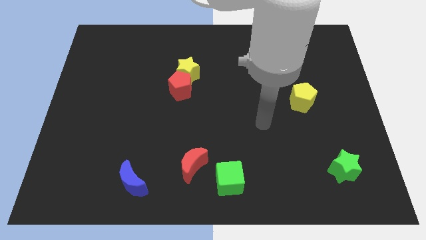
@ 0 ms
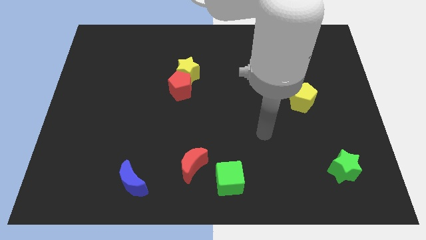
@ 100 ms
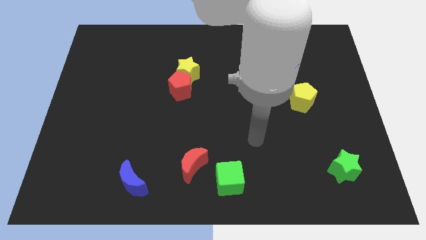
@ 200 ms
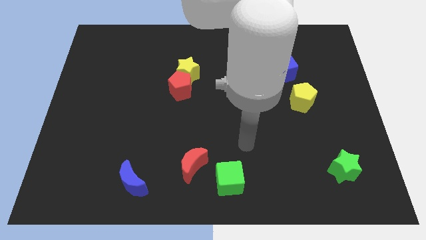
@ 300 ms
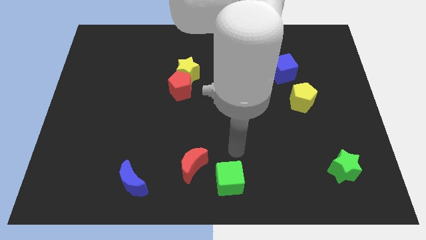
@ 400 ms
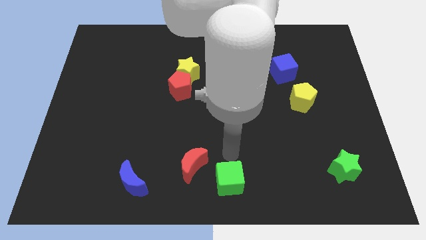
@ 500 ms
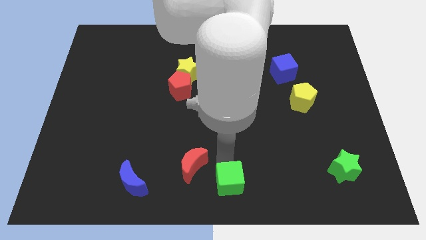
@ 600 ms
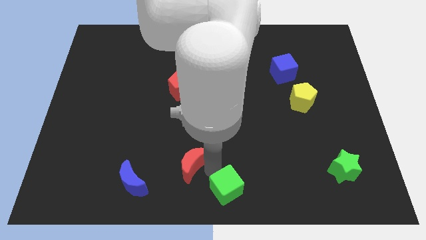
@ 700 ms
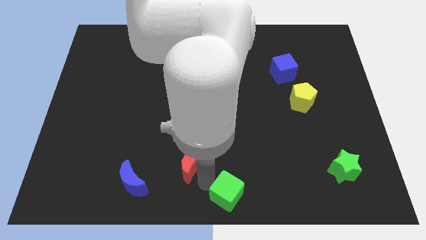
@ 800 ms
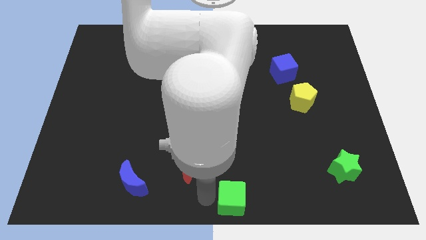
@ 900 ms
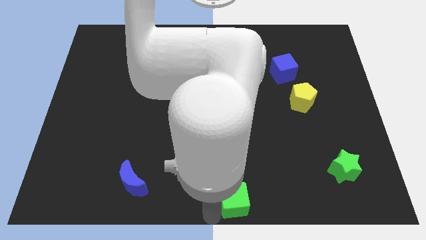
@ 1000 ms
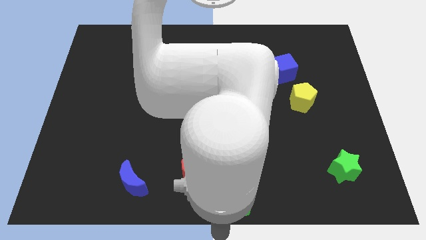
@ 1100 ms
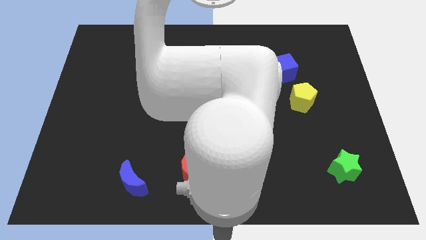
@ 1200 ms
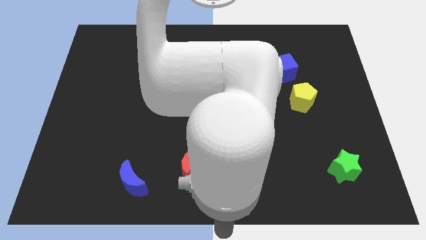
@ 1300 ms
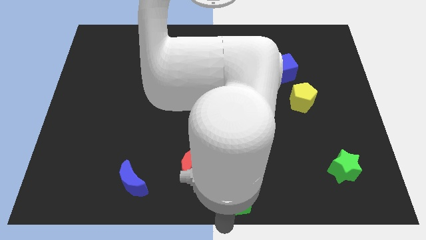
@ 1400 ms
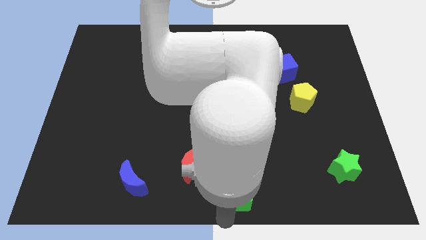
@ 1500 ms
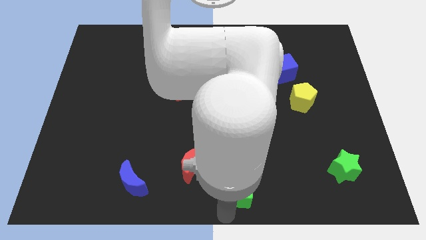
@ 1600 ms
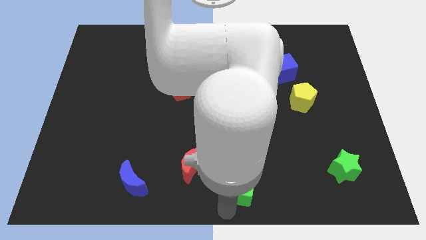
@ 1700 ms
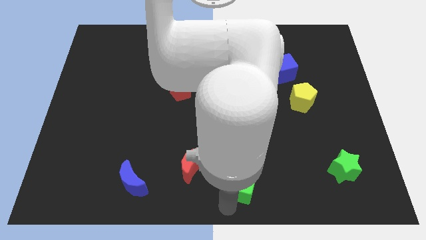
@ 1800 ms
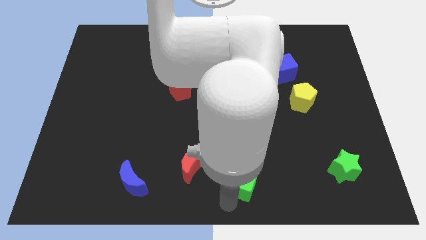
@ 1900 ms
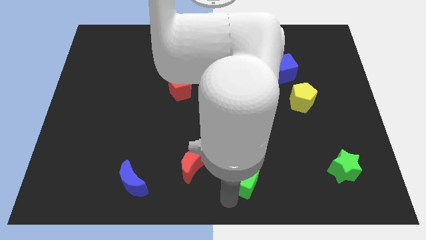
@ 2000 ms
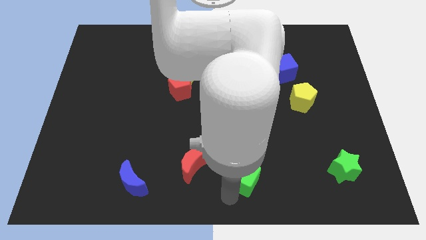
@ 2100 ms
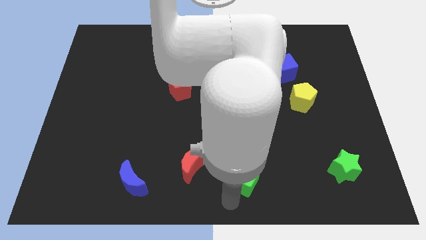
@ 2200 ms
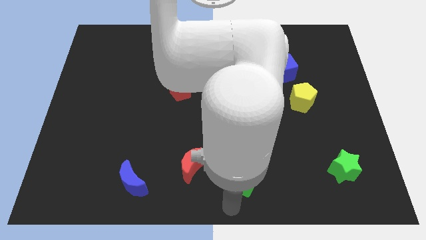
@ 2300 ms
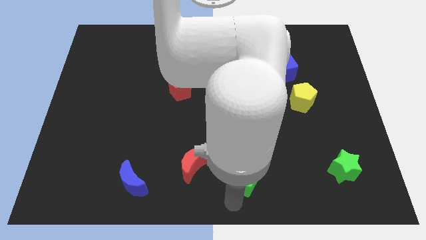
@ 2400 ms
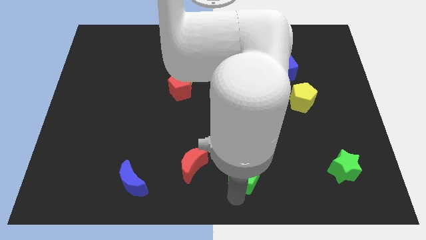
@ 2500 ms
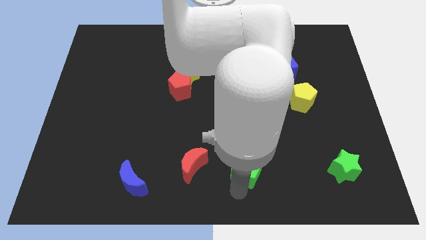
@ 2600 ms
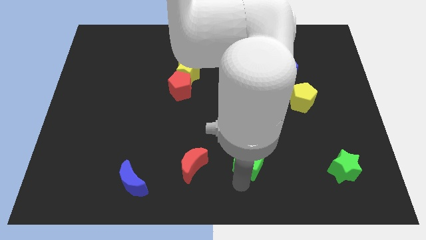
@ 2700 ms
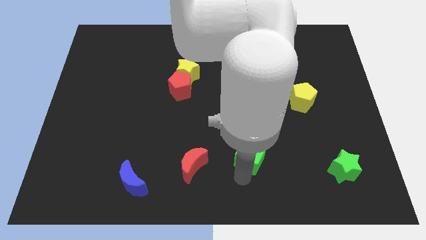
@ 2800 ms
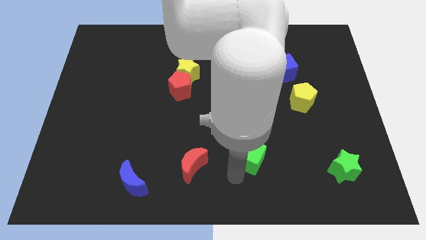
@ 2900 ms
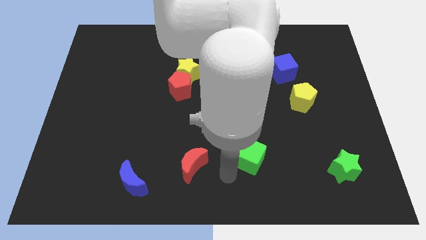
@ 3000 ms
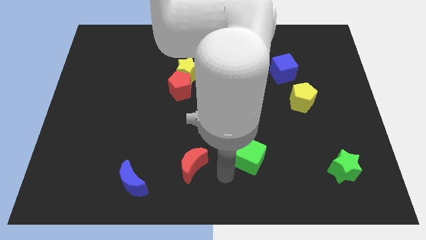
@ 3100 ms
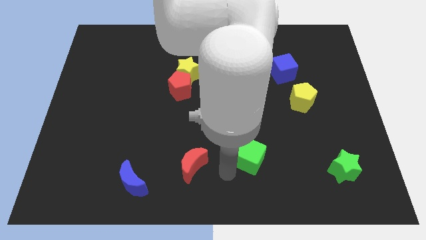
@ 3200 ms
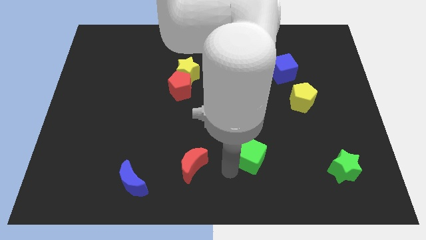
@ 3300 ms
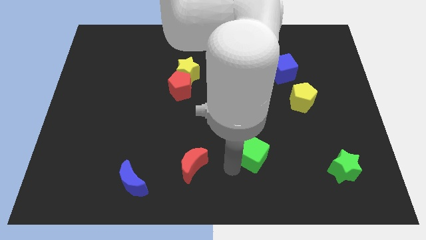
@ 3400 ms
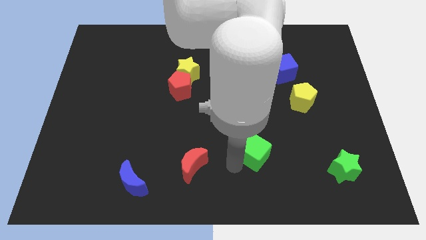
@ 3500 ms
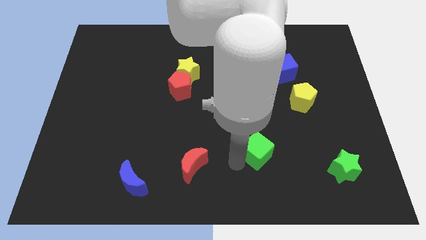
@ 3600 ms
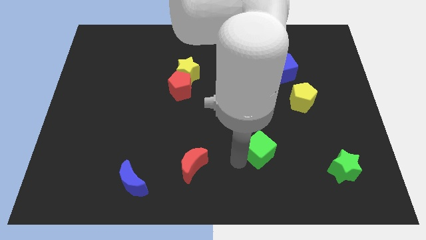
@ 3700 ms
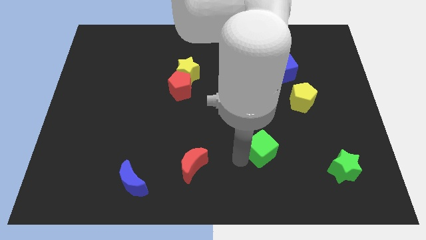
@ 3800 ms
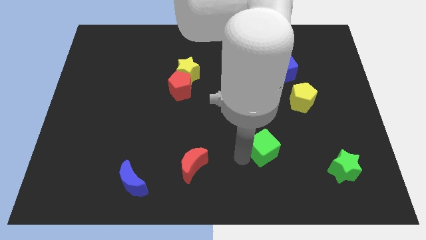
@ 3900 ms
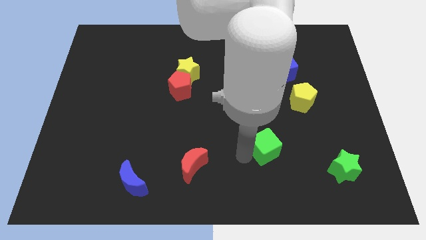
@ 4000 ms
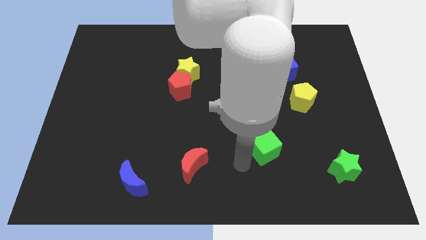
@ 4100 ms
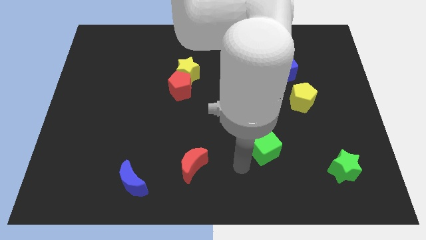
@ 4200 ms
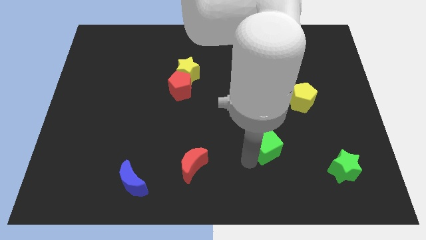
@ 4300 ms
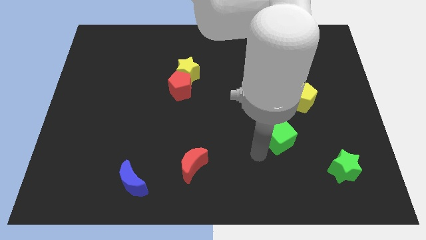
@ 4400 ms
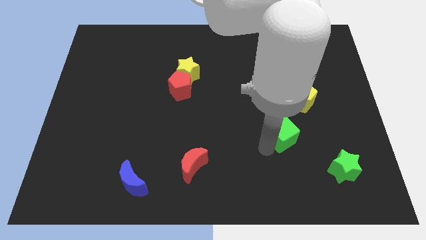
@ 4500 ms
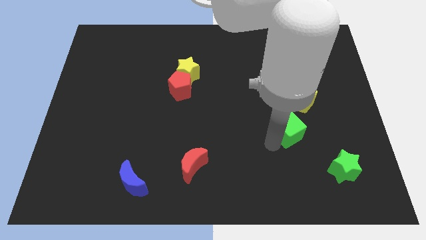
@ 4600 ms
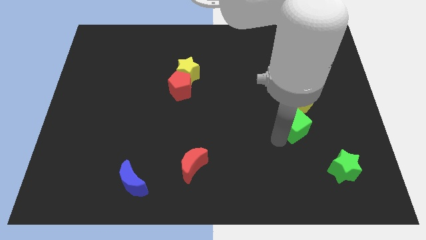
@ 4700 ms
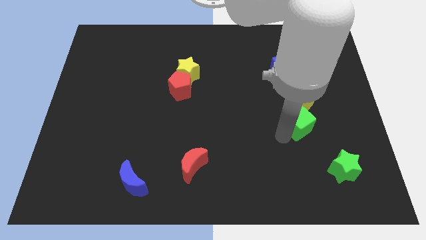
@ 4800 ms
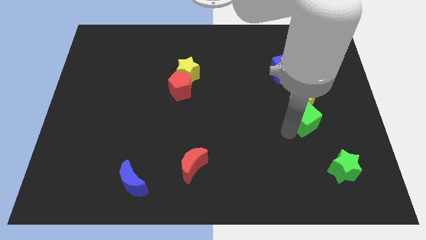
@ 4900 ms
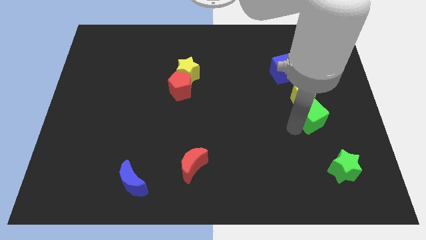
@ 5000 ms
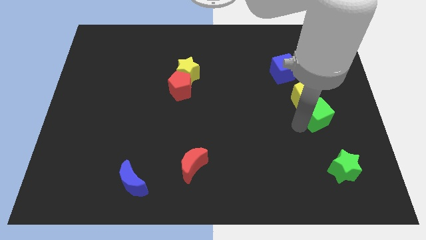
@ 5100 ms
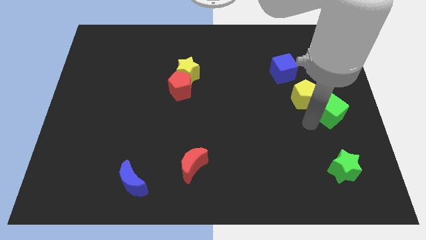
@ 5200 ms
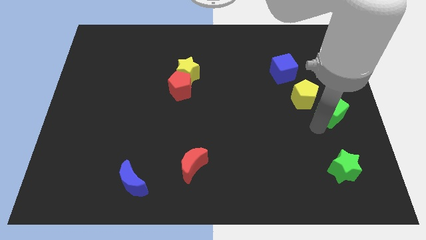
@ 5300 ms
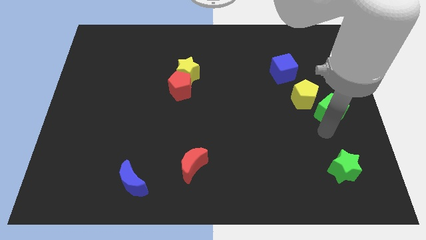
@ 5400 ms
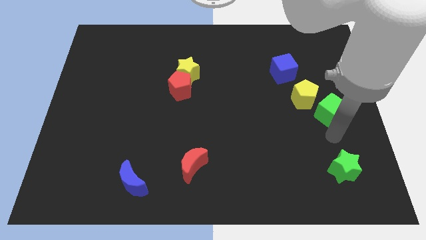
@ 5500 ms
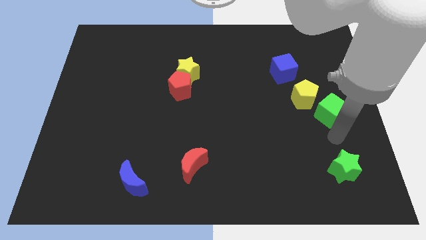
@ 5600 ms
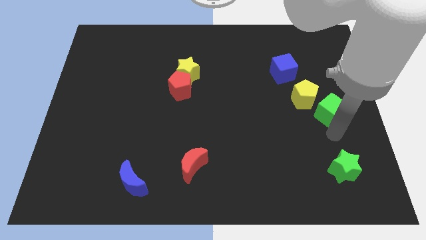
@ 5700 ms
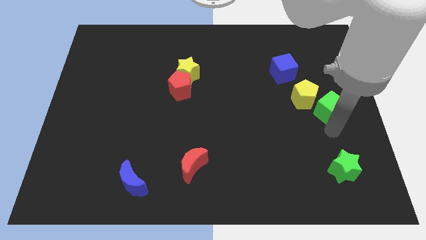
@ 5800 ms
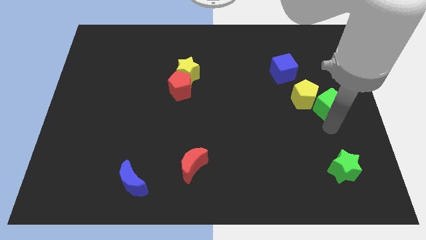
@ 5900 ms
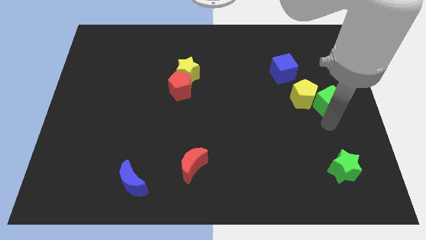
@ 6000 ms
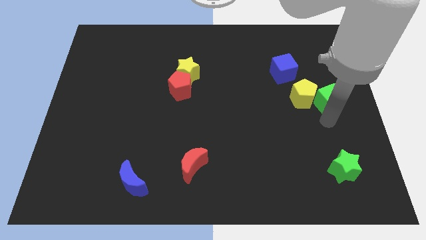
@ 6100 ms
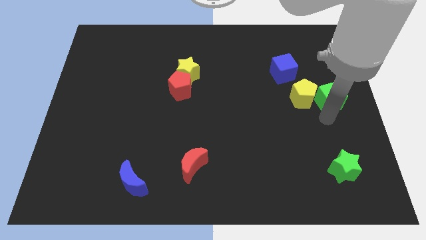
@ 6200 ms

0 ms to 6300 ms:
move the green cube diagonally up and to the right of the yellow pentagon

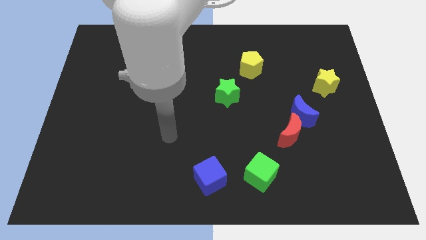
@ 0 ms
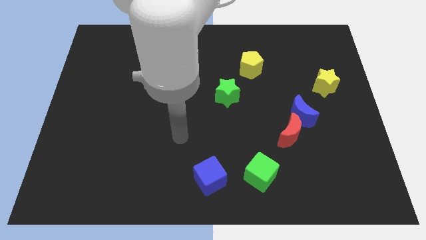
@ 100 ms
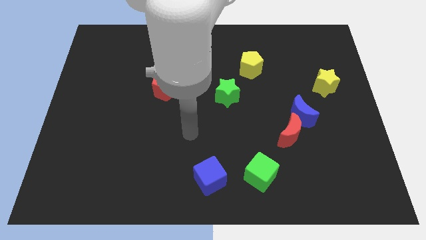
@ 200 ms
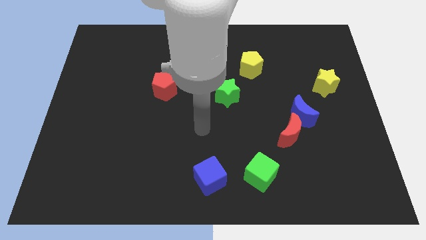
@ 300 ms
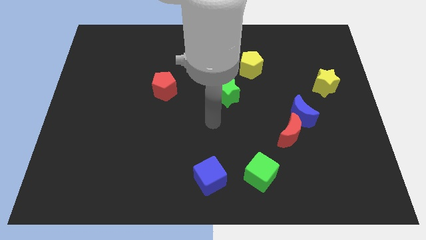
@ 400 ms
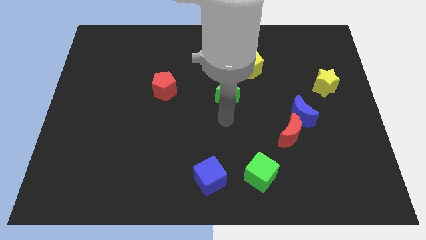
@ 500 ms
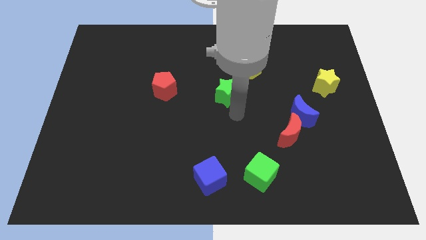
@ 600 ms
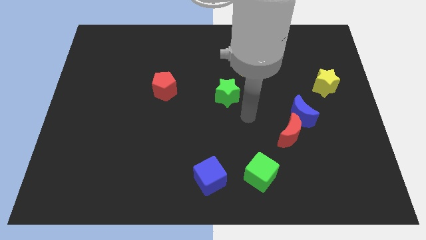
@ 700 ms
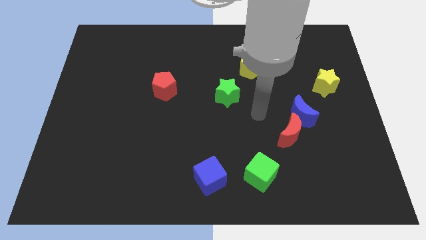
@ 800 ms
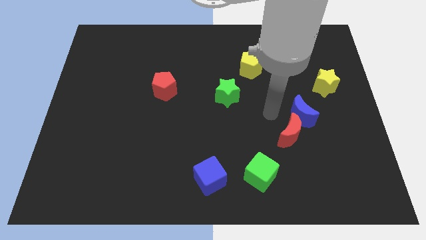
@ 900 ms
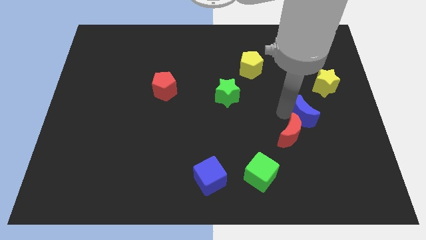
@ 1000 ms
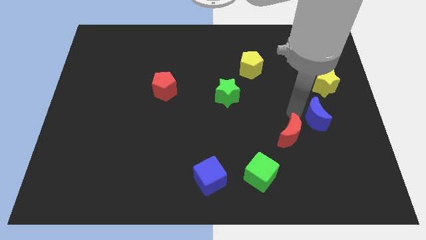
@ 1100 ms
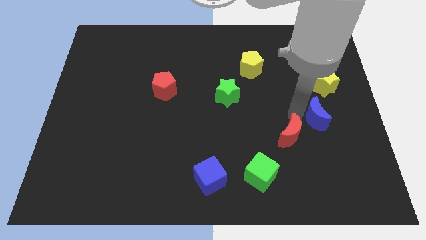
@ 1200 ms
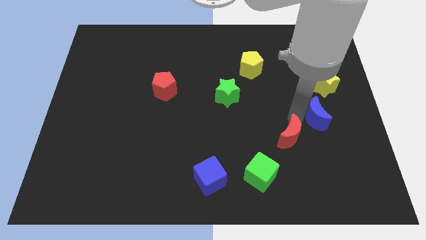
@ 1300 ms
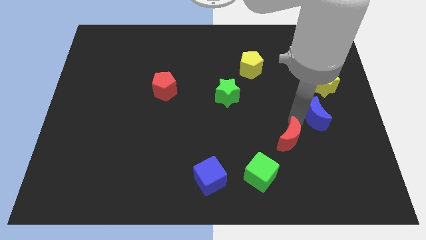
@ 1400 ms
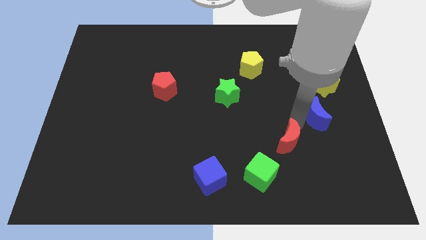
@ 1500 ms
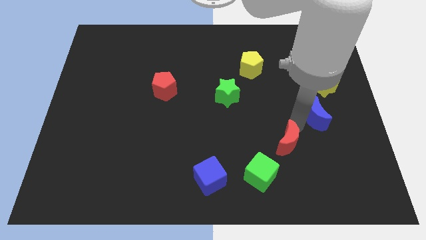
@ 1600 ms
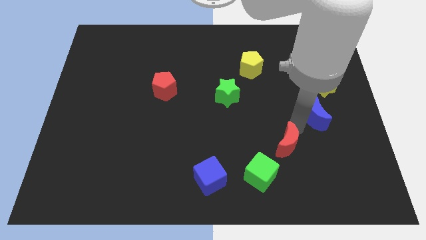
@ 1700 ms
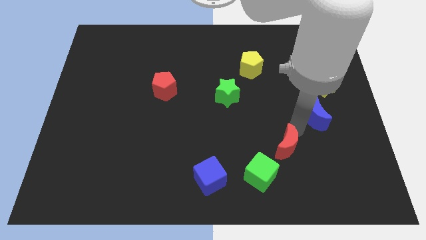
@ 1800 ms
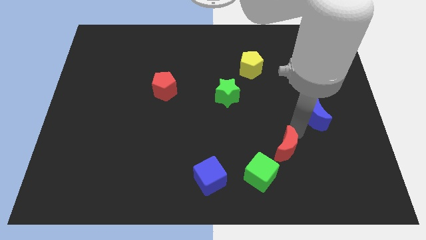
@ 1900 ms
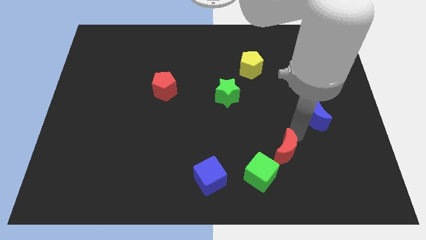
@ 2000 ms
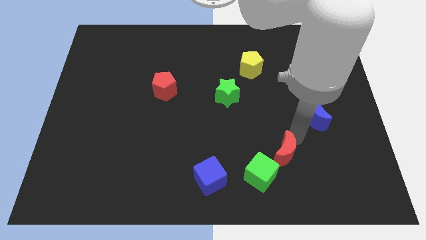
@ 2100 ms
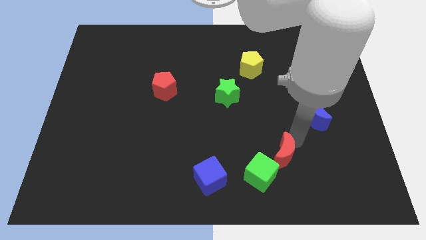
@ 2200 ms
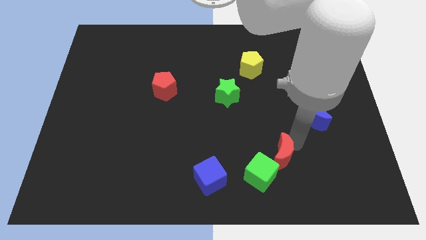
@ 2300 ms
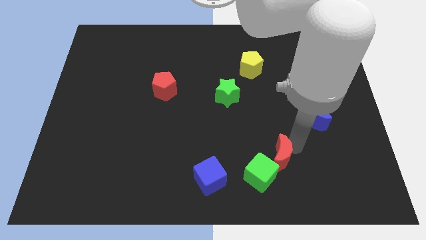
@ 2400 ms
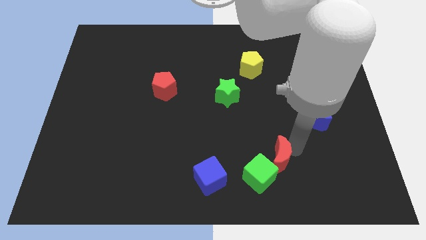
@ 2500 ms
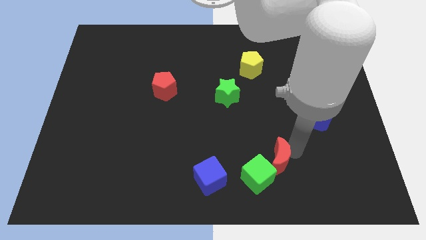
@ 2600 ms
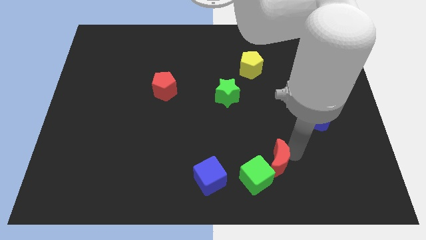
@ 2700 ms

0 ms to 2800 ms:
push the red moon right of the blue cube
